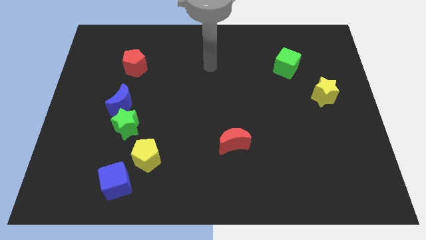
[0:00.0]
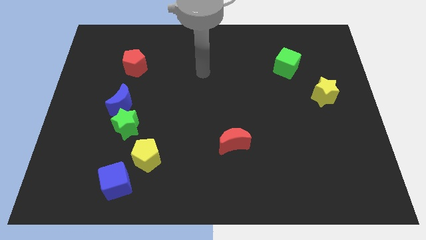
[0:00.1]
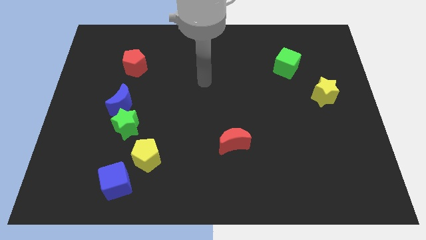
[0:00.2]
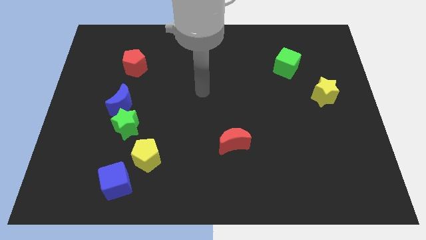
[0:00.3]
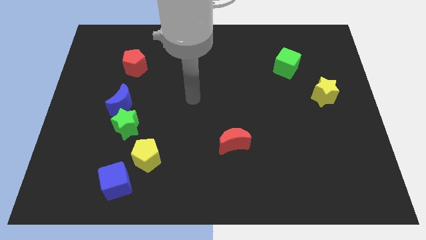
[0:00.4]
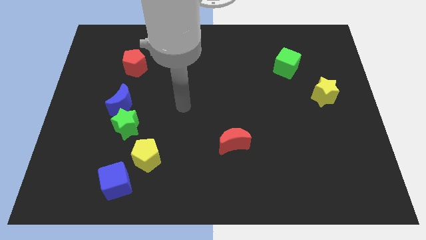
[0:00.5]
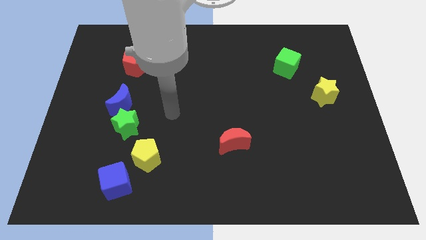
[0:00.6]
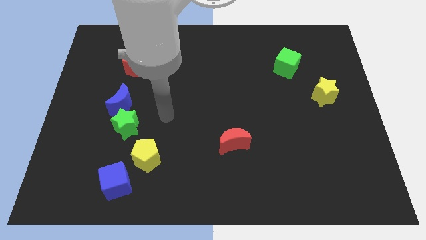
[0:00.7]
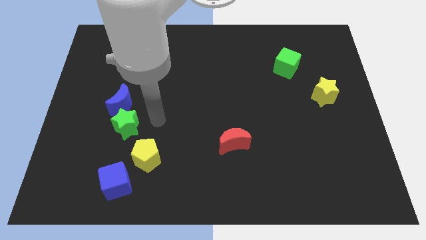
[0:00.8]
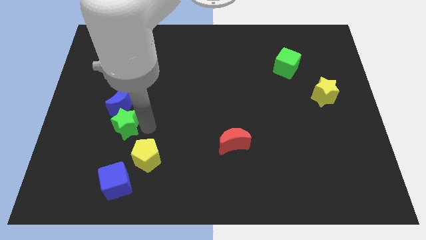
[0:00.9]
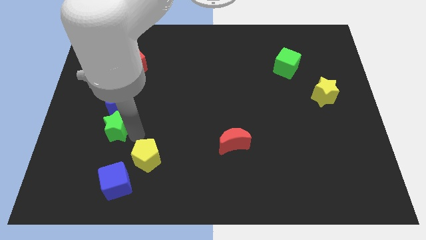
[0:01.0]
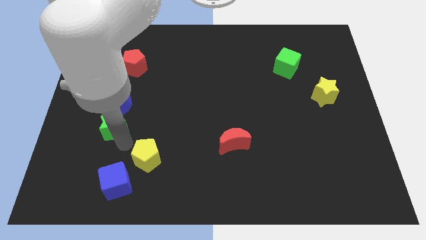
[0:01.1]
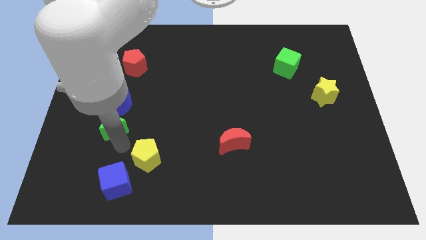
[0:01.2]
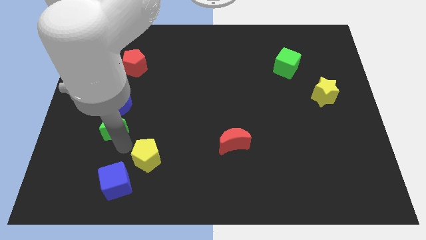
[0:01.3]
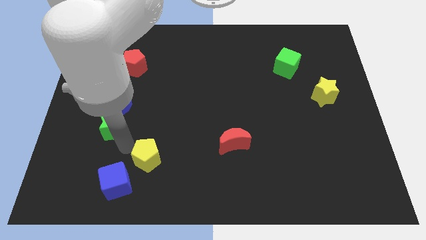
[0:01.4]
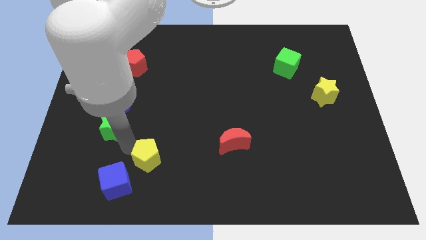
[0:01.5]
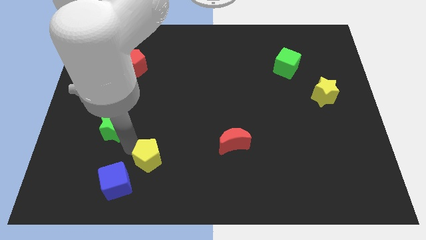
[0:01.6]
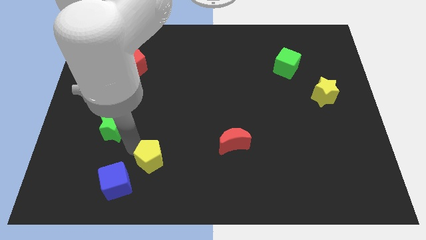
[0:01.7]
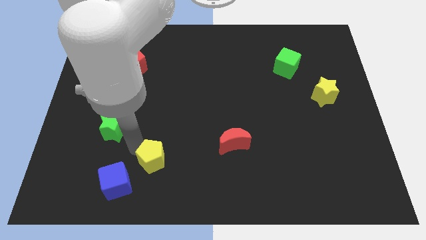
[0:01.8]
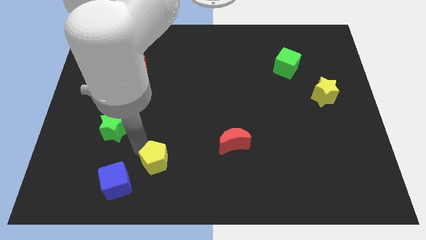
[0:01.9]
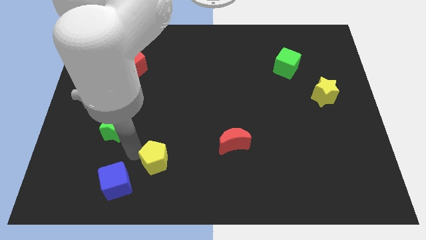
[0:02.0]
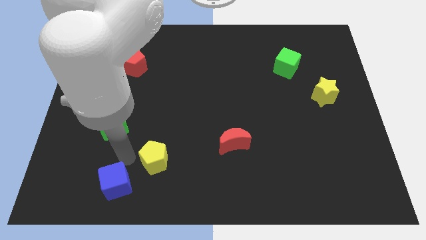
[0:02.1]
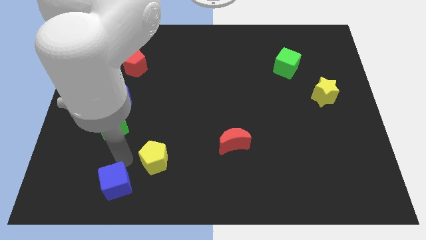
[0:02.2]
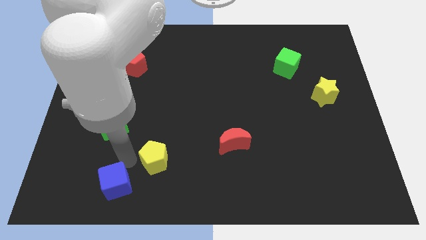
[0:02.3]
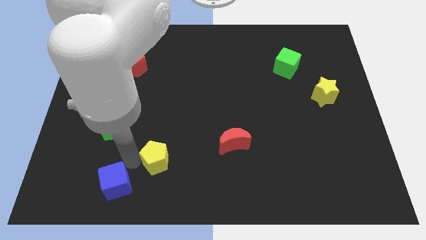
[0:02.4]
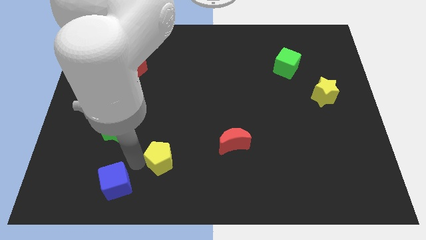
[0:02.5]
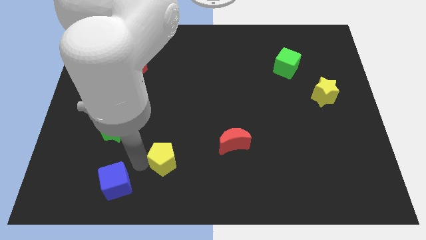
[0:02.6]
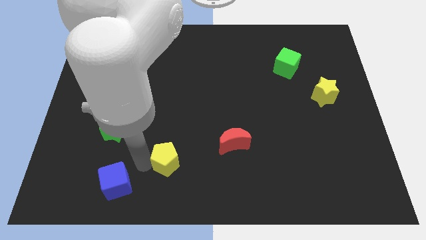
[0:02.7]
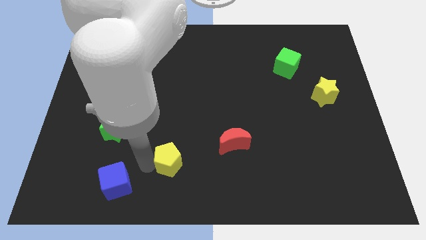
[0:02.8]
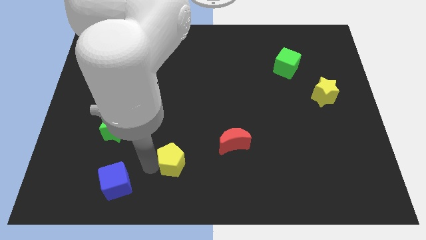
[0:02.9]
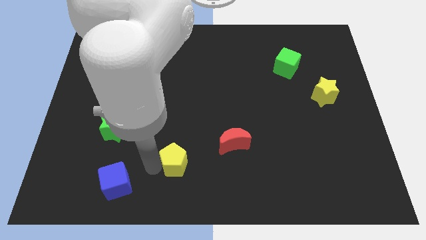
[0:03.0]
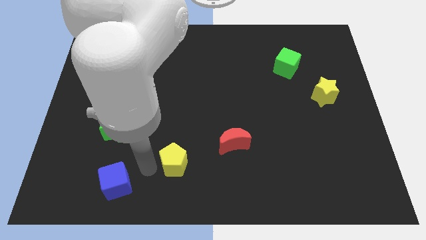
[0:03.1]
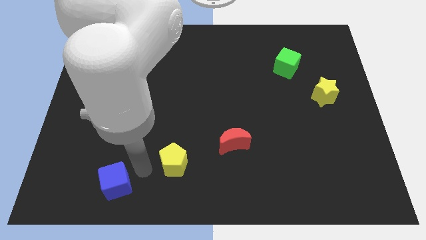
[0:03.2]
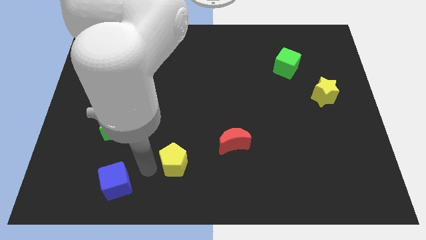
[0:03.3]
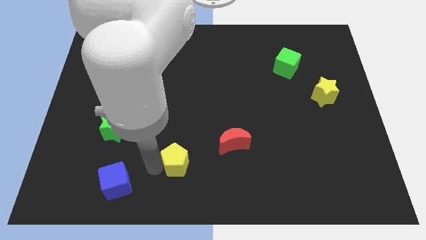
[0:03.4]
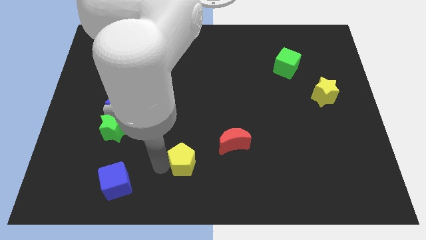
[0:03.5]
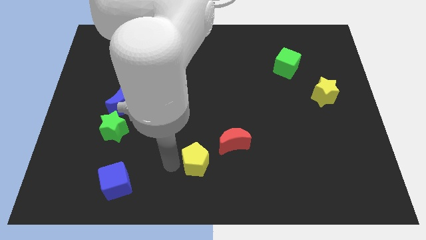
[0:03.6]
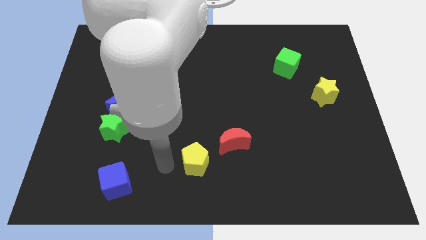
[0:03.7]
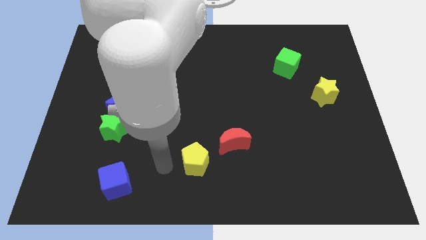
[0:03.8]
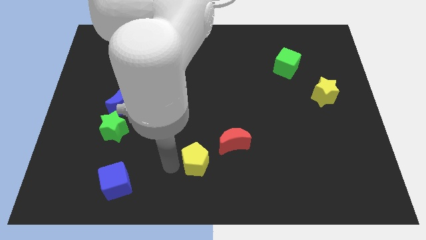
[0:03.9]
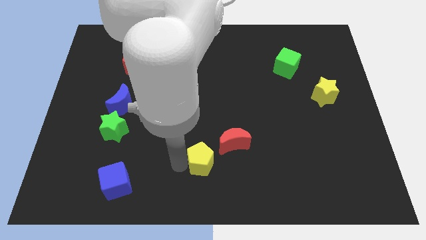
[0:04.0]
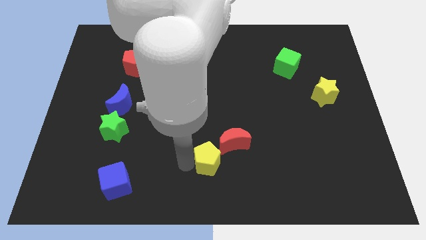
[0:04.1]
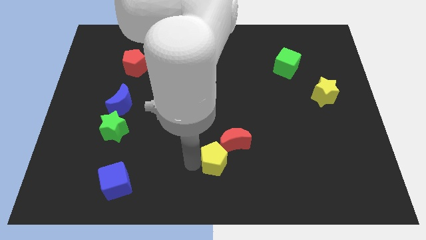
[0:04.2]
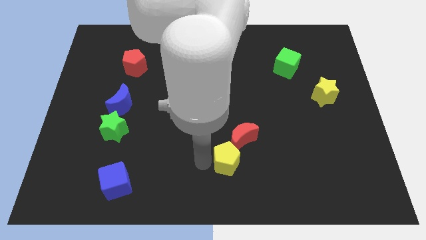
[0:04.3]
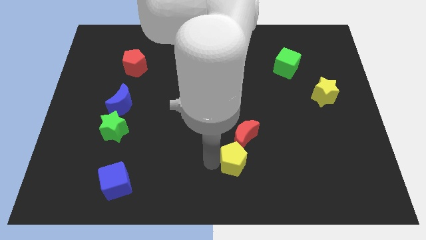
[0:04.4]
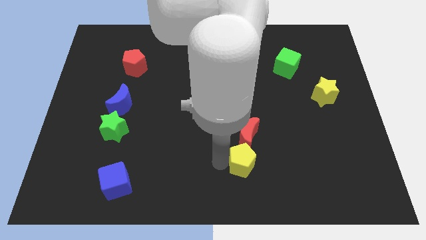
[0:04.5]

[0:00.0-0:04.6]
move the yellow pentagon to the right

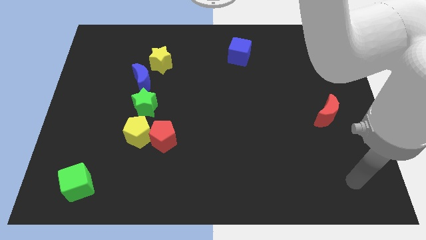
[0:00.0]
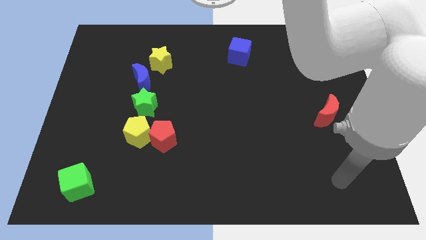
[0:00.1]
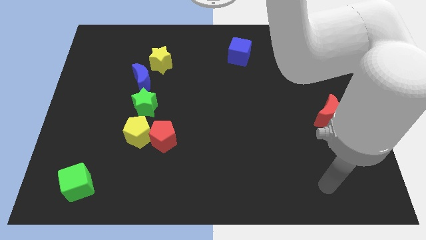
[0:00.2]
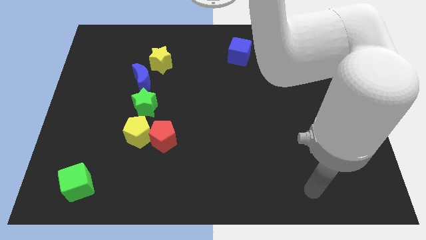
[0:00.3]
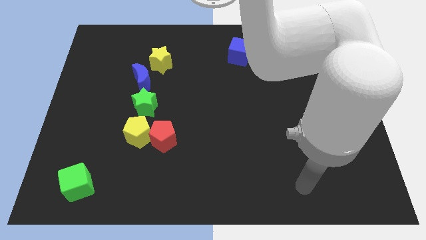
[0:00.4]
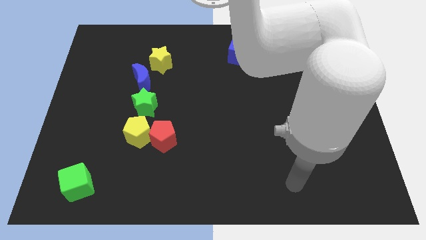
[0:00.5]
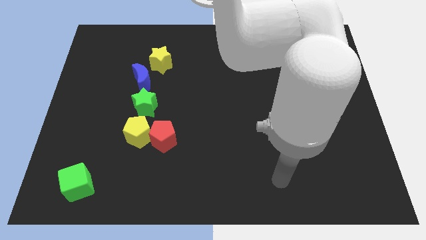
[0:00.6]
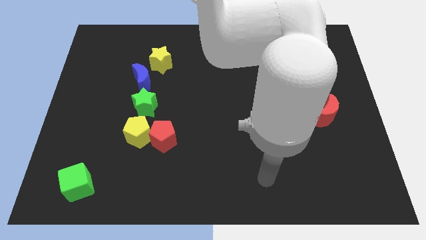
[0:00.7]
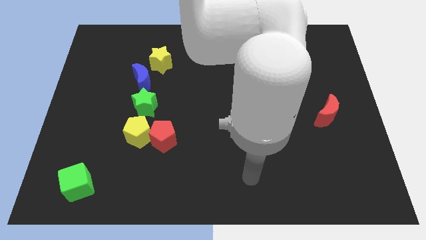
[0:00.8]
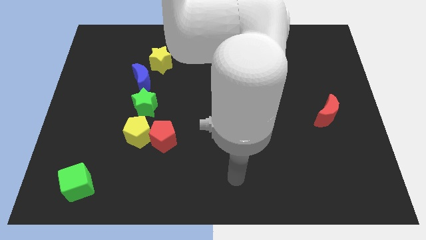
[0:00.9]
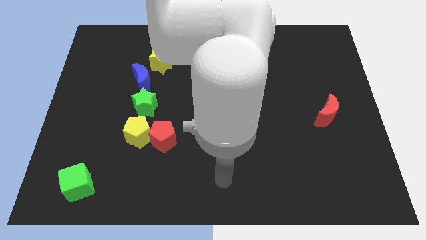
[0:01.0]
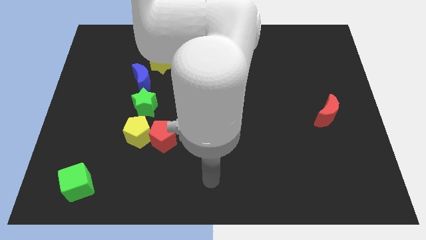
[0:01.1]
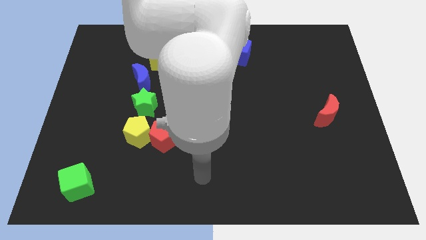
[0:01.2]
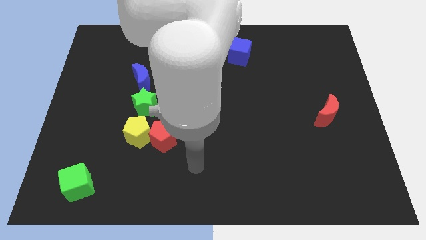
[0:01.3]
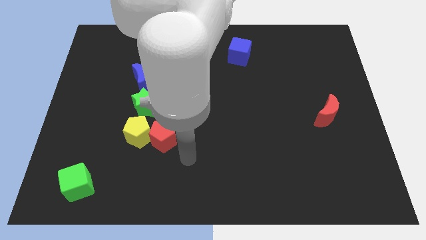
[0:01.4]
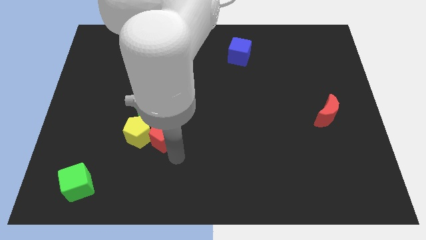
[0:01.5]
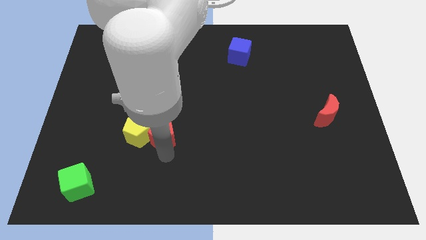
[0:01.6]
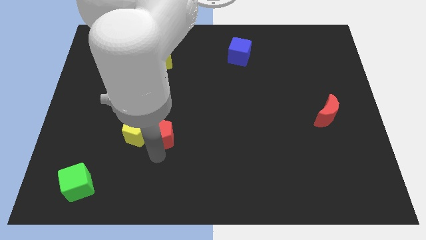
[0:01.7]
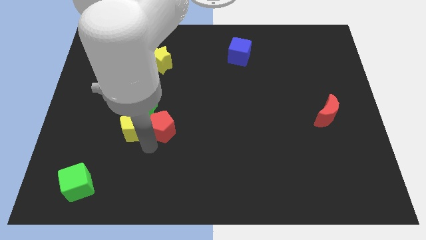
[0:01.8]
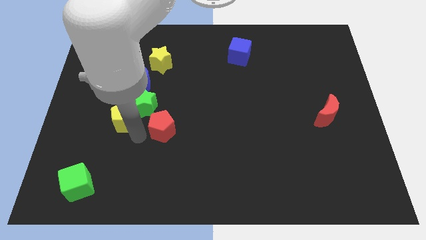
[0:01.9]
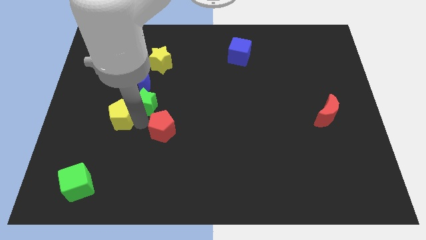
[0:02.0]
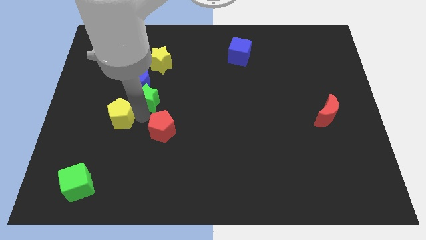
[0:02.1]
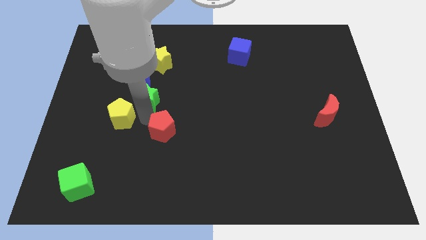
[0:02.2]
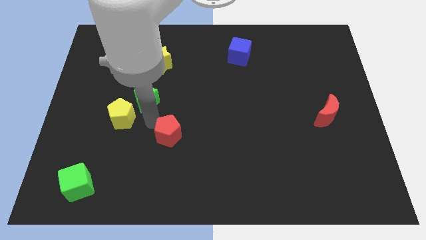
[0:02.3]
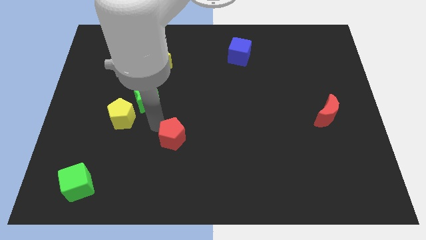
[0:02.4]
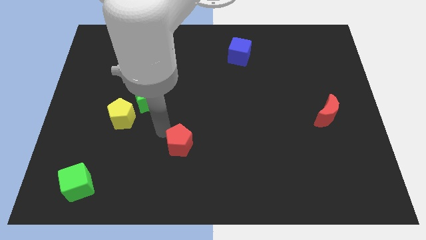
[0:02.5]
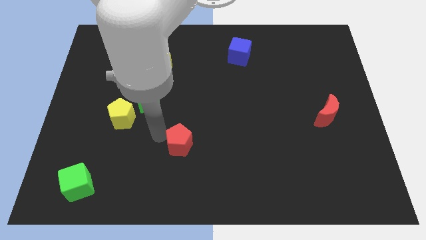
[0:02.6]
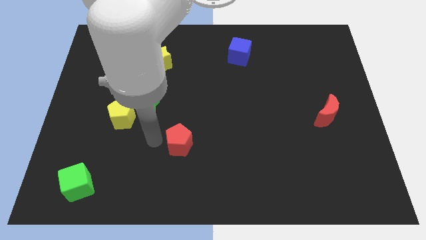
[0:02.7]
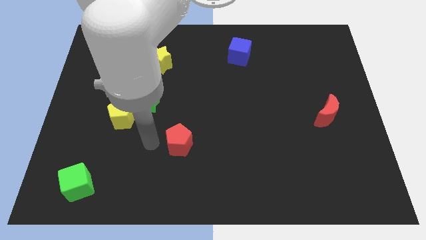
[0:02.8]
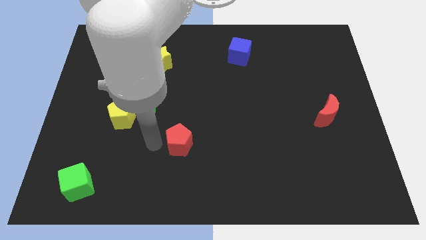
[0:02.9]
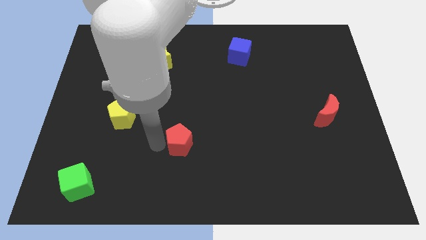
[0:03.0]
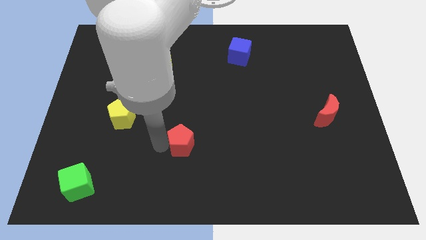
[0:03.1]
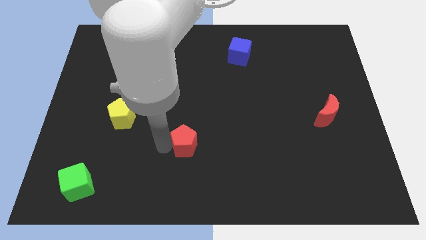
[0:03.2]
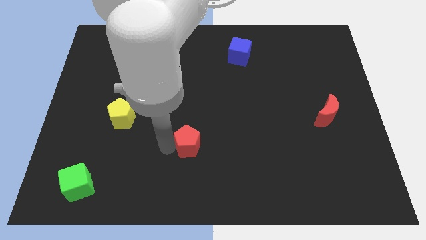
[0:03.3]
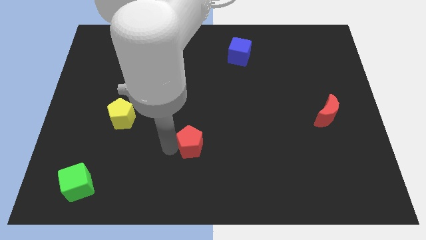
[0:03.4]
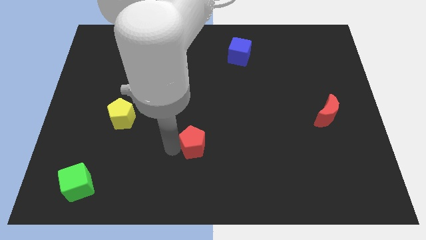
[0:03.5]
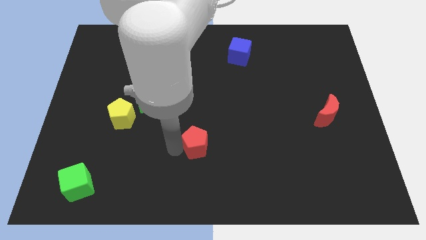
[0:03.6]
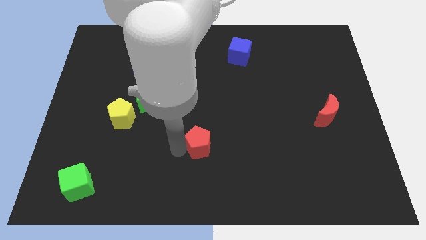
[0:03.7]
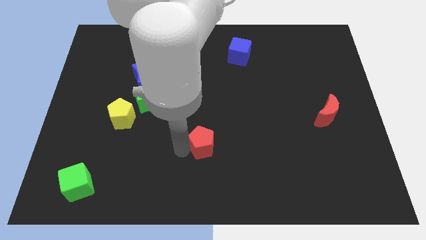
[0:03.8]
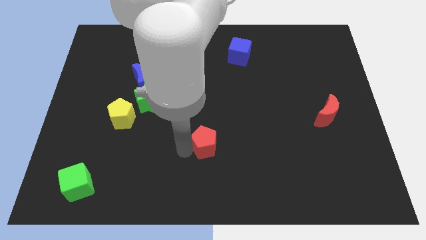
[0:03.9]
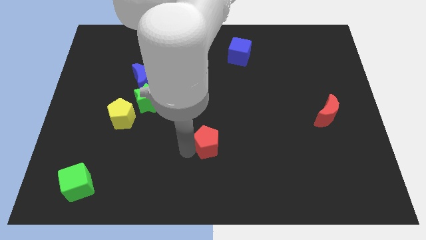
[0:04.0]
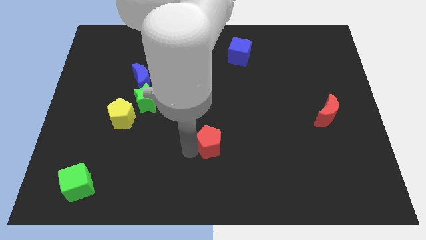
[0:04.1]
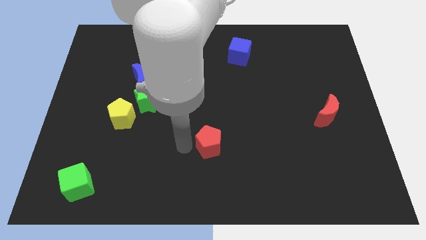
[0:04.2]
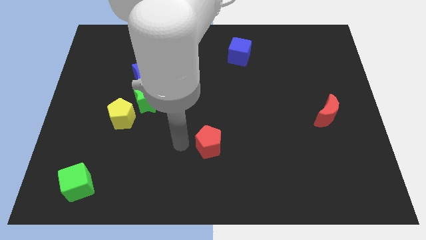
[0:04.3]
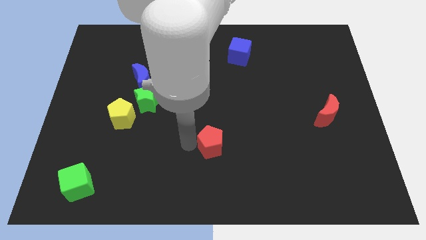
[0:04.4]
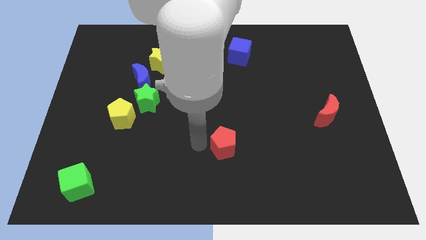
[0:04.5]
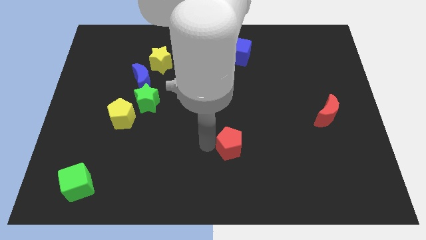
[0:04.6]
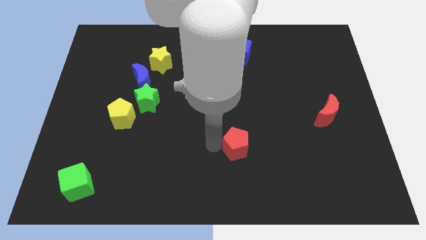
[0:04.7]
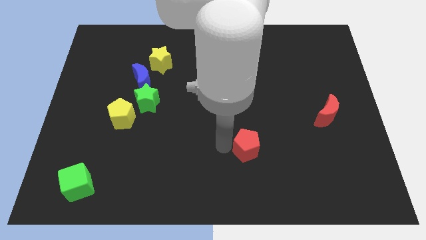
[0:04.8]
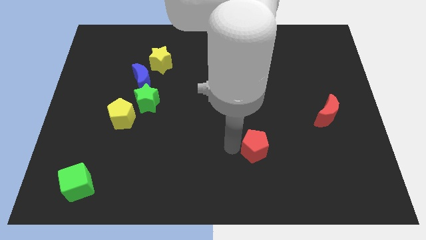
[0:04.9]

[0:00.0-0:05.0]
push the red pentagon to the right
